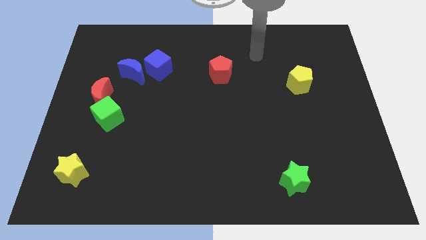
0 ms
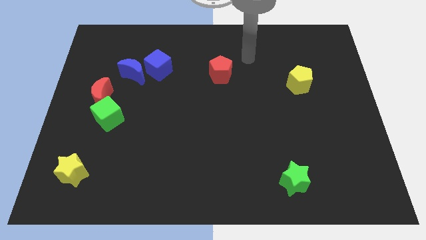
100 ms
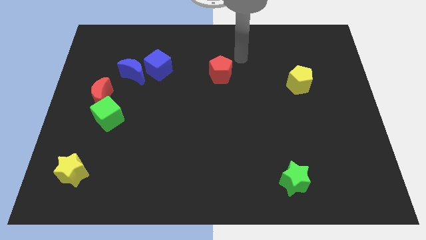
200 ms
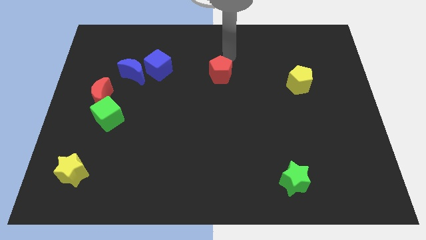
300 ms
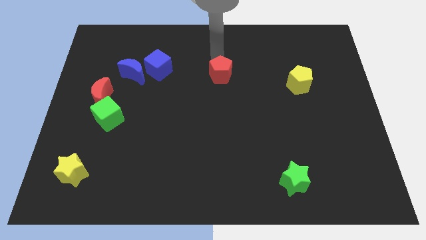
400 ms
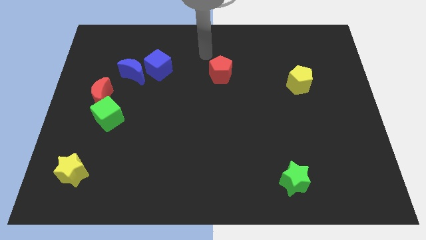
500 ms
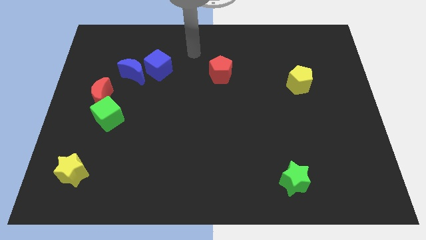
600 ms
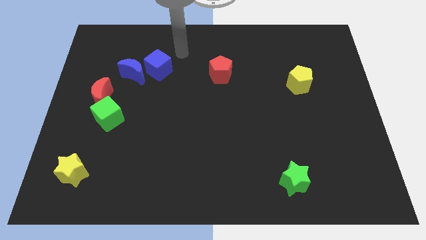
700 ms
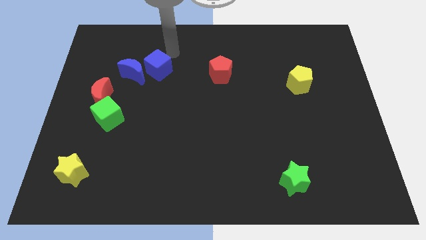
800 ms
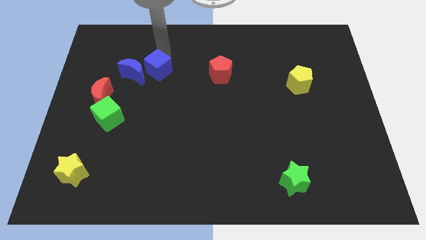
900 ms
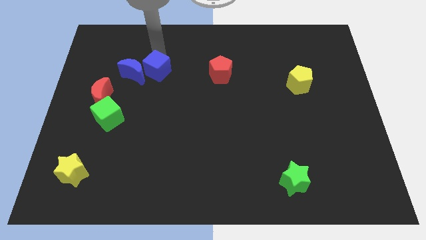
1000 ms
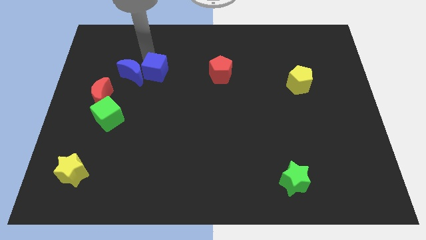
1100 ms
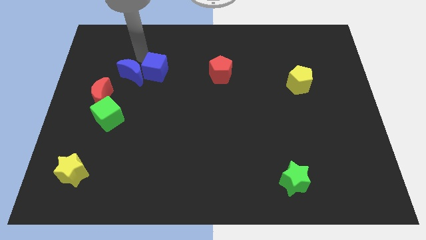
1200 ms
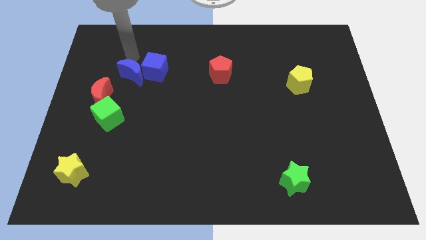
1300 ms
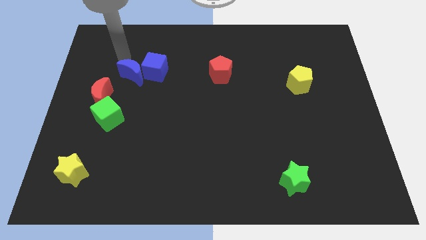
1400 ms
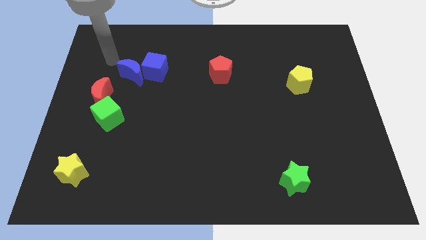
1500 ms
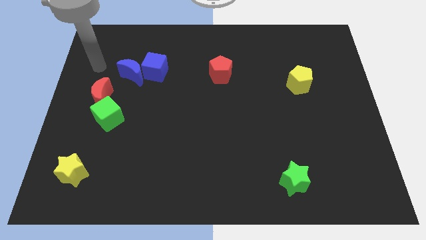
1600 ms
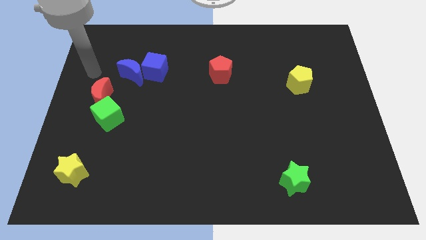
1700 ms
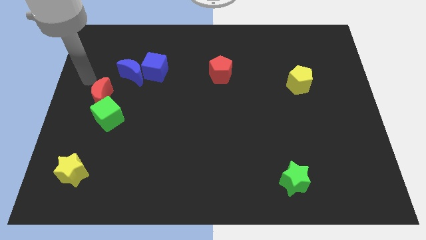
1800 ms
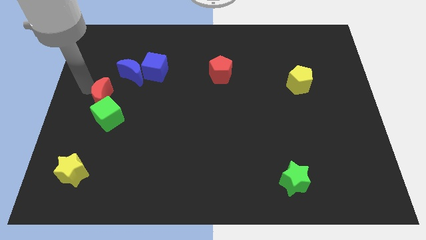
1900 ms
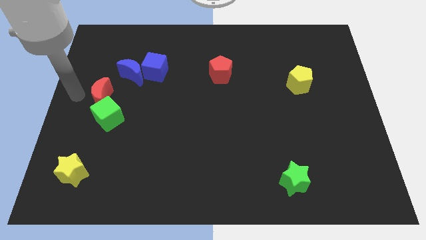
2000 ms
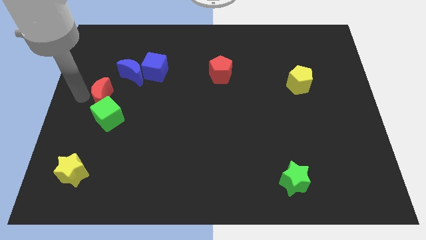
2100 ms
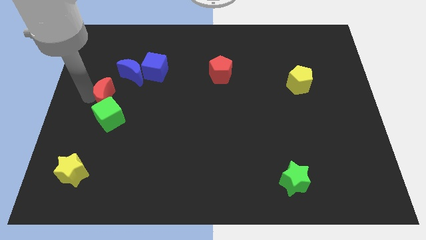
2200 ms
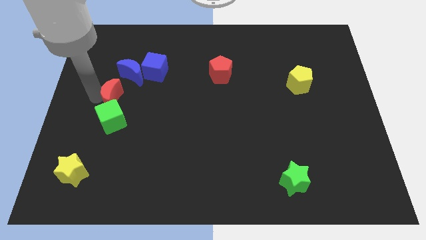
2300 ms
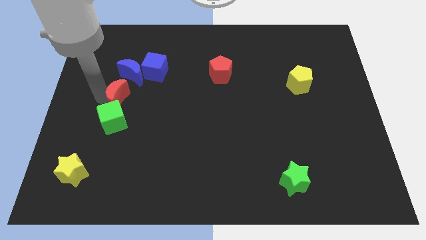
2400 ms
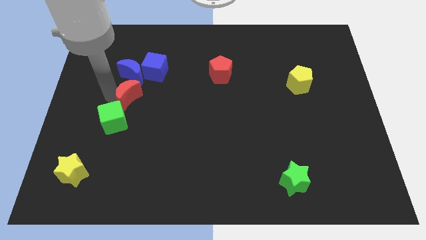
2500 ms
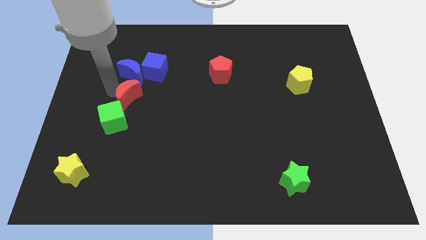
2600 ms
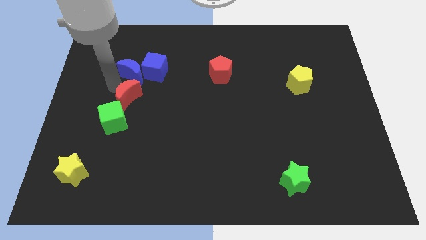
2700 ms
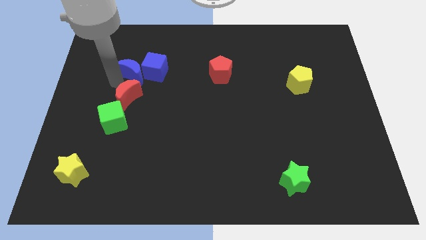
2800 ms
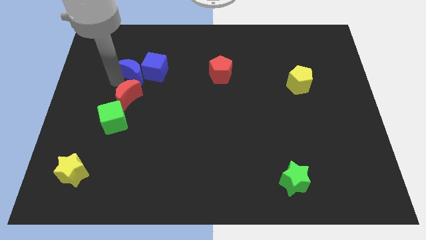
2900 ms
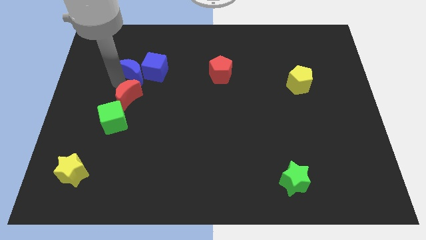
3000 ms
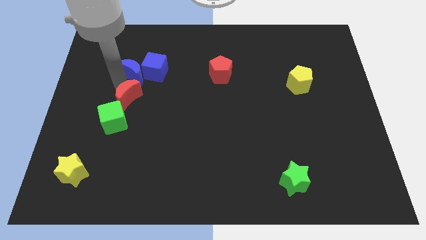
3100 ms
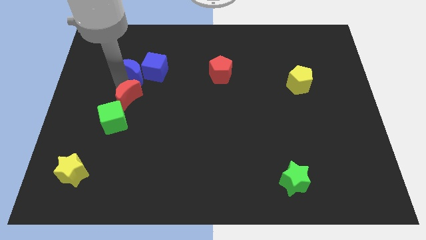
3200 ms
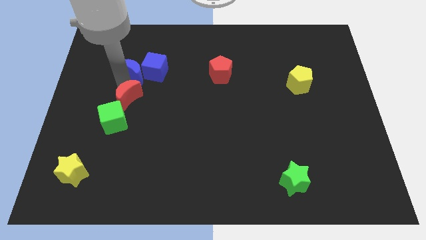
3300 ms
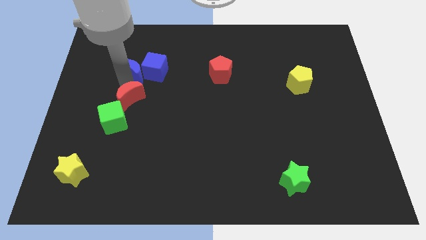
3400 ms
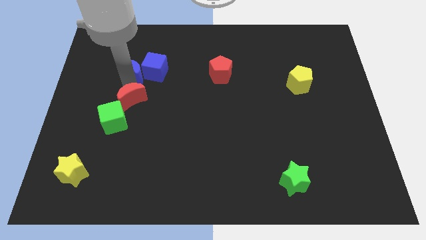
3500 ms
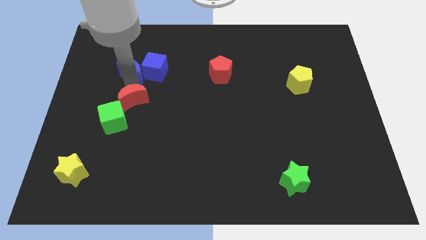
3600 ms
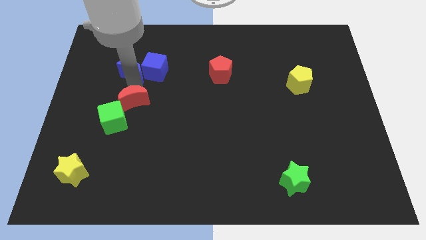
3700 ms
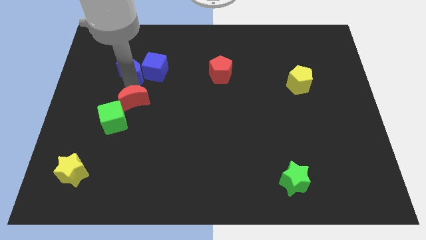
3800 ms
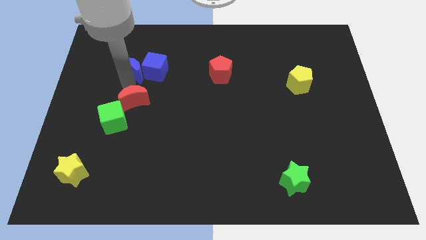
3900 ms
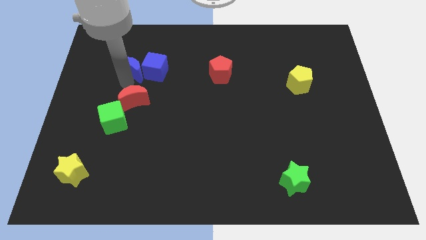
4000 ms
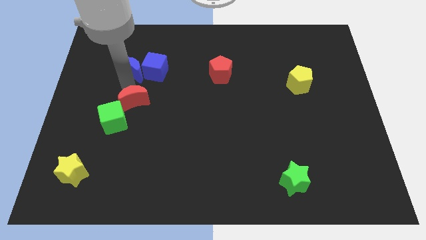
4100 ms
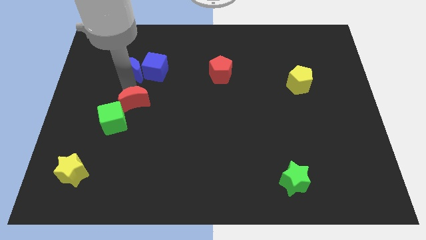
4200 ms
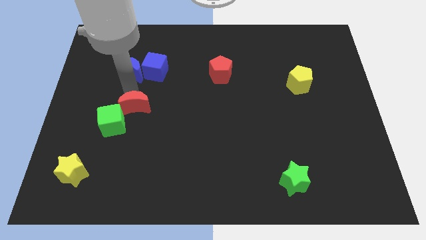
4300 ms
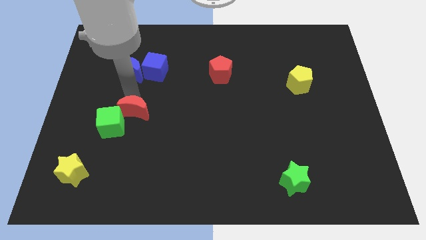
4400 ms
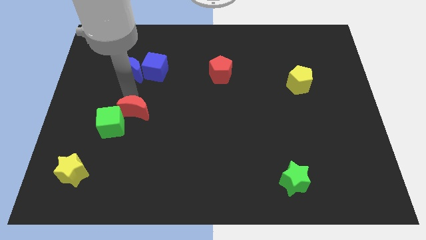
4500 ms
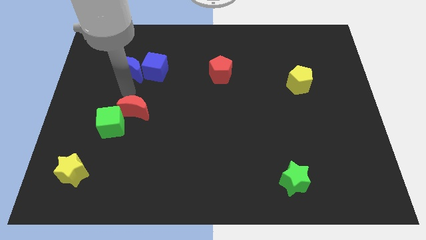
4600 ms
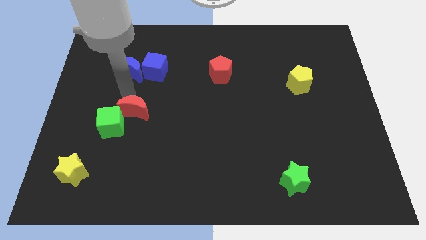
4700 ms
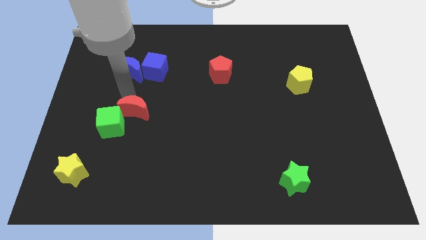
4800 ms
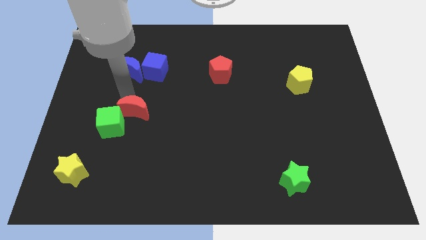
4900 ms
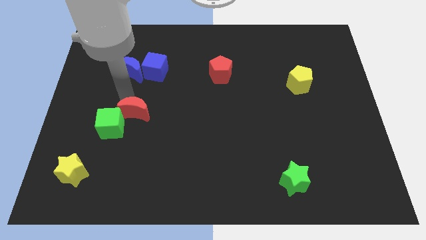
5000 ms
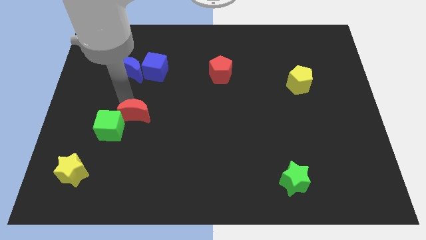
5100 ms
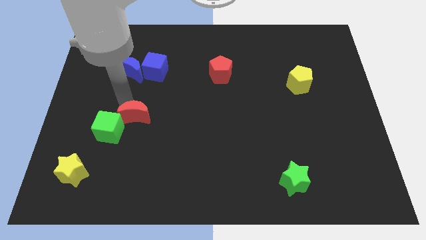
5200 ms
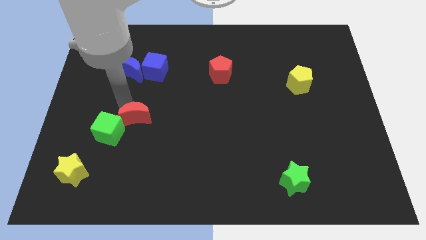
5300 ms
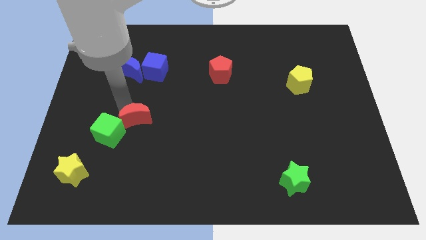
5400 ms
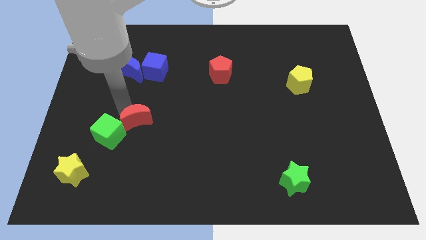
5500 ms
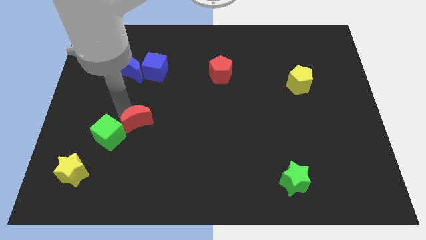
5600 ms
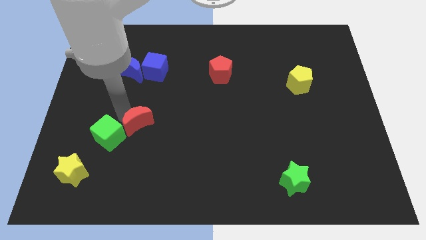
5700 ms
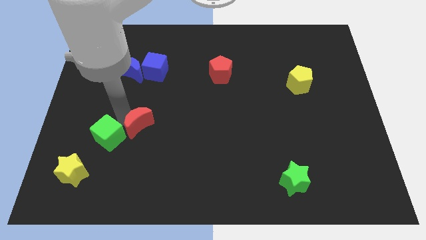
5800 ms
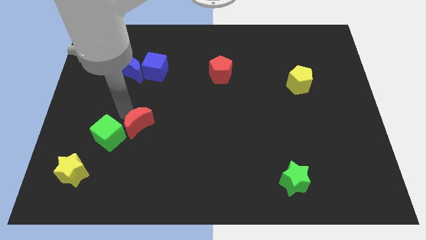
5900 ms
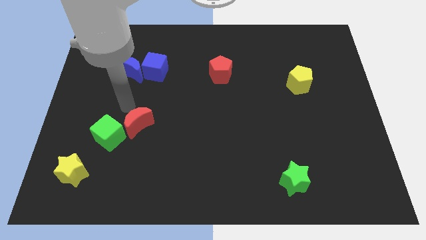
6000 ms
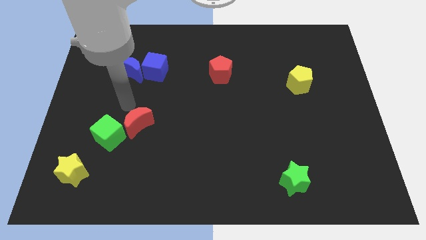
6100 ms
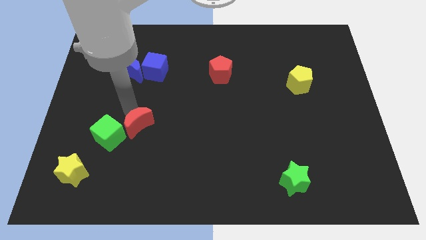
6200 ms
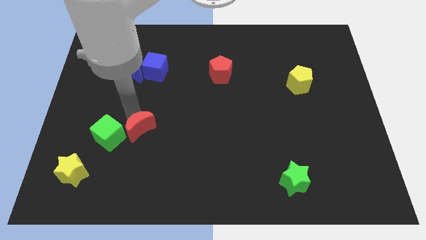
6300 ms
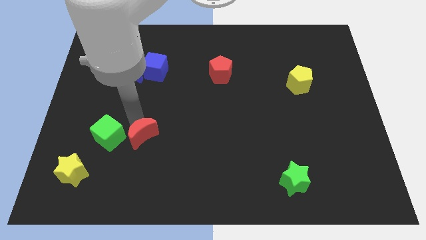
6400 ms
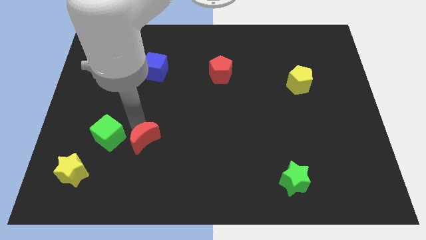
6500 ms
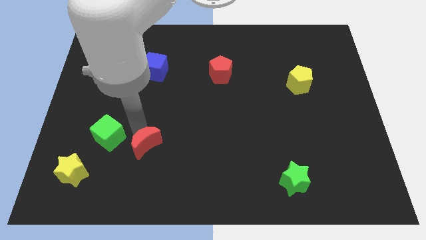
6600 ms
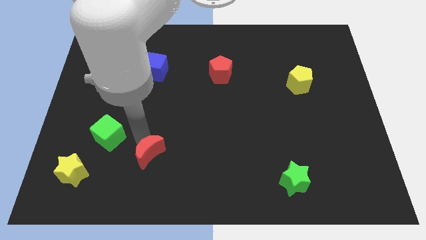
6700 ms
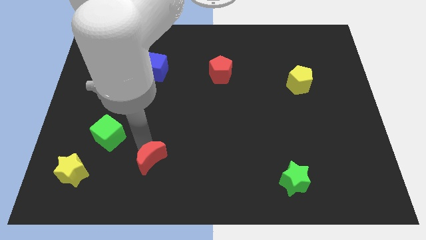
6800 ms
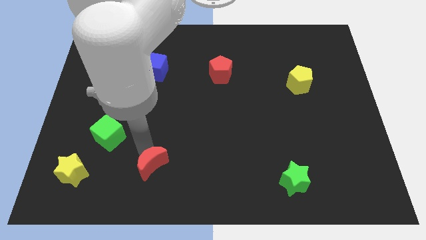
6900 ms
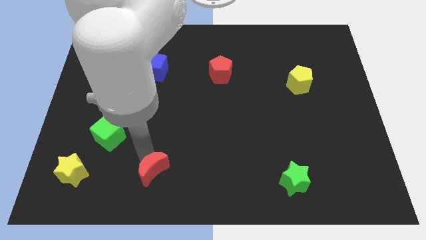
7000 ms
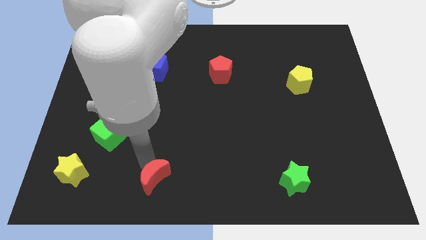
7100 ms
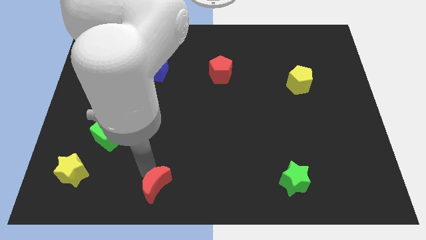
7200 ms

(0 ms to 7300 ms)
move the red moon to the bottom
